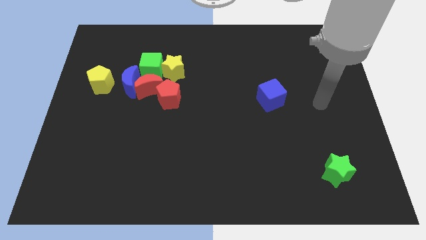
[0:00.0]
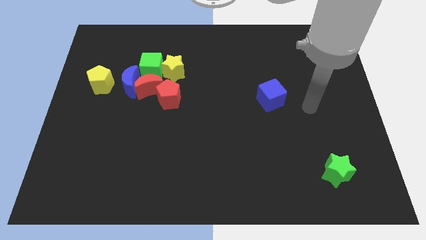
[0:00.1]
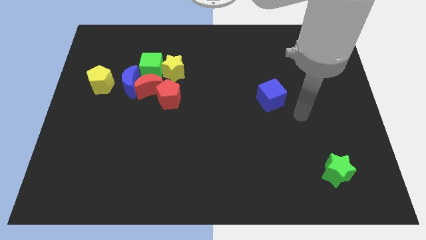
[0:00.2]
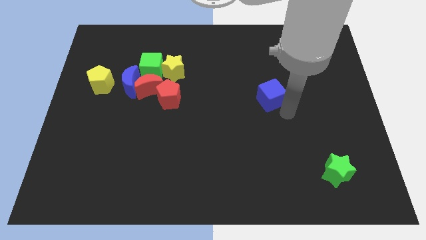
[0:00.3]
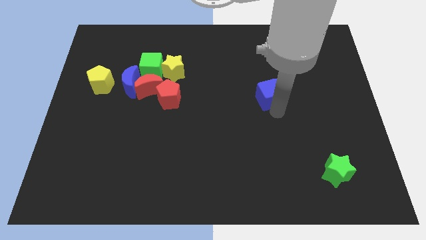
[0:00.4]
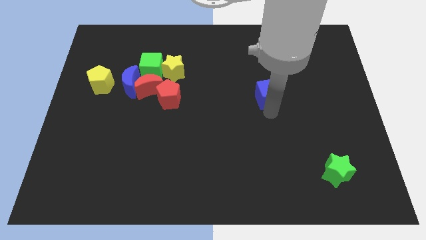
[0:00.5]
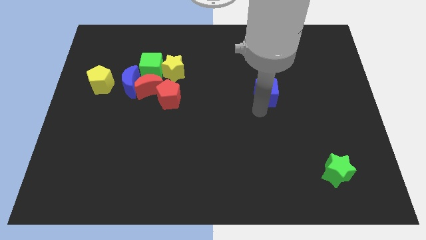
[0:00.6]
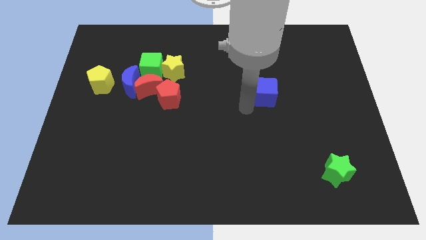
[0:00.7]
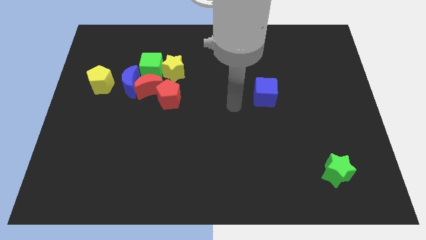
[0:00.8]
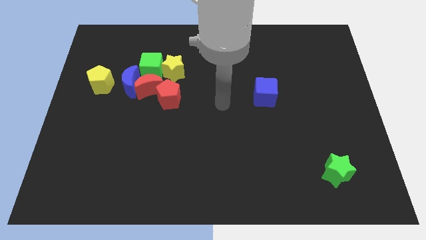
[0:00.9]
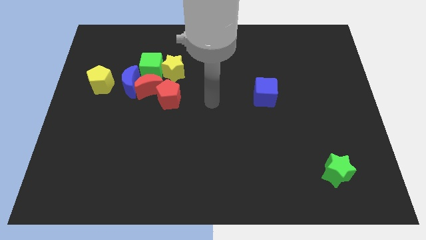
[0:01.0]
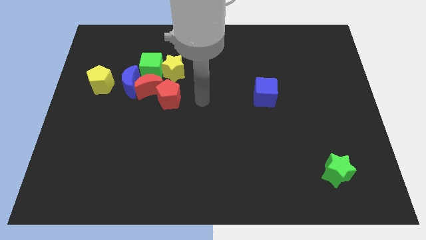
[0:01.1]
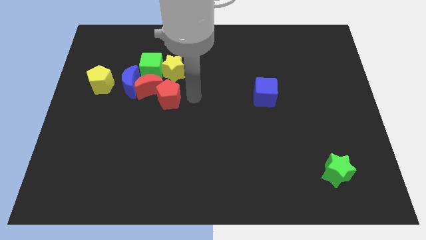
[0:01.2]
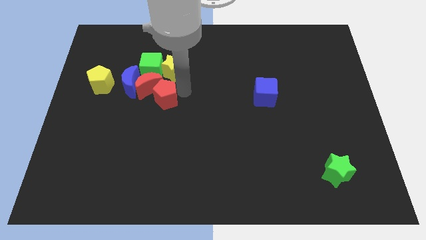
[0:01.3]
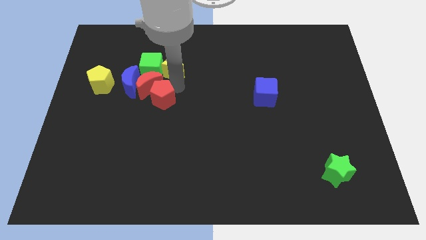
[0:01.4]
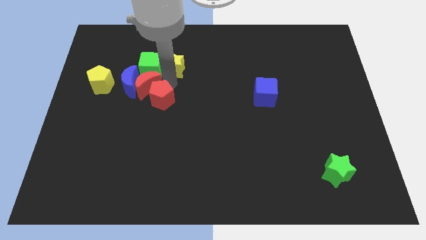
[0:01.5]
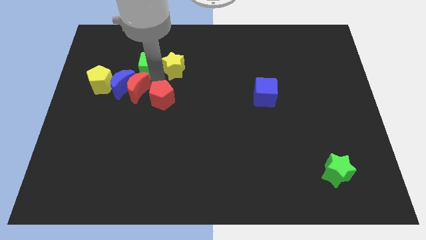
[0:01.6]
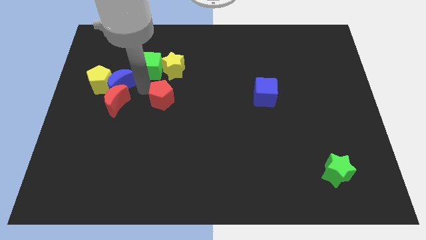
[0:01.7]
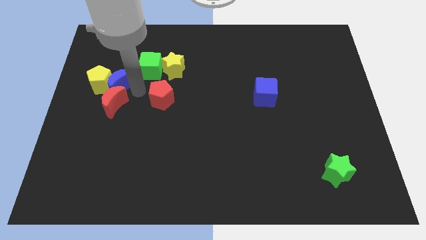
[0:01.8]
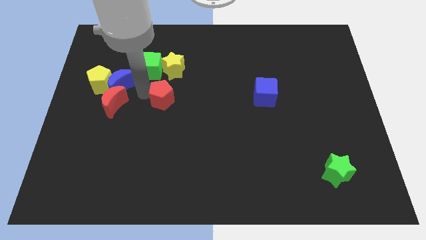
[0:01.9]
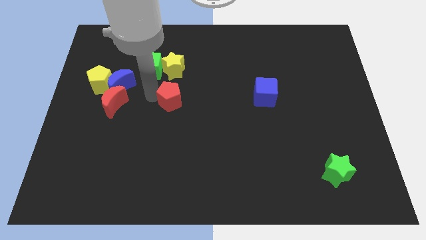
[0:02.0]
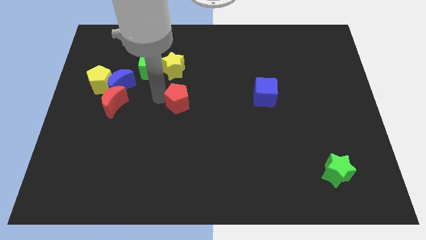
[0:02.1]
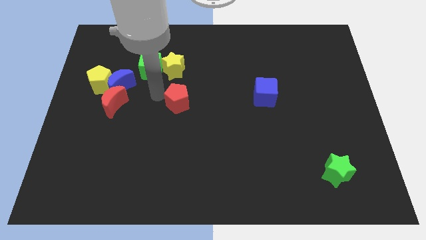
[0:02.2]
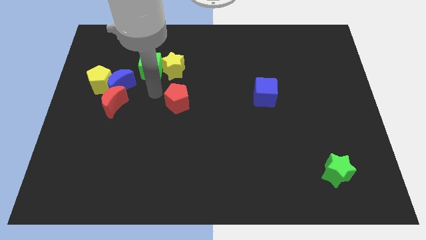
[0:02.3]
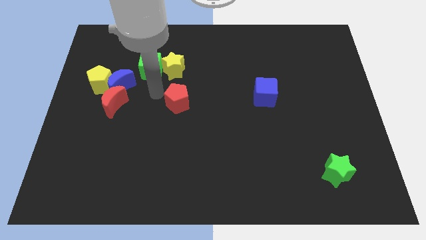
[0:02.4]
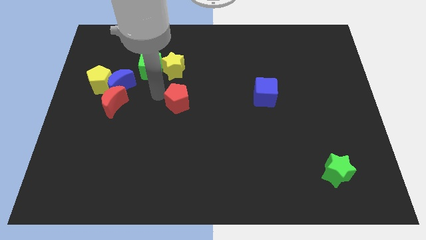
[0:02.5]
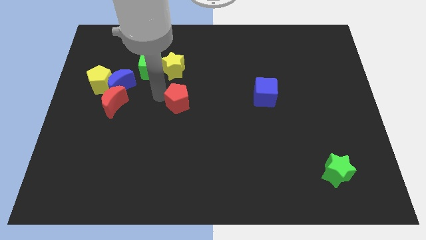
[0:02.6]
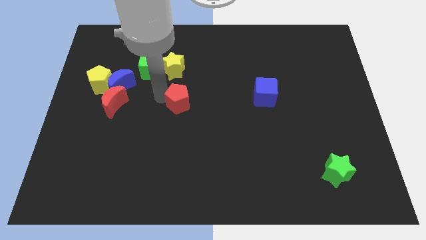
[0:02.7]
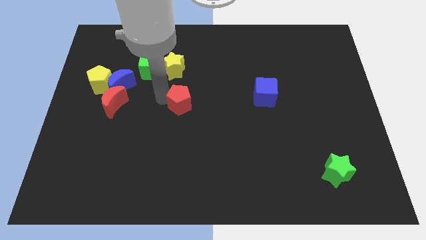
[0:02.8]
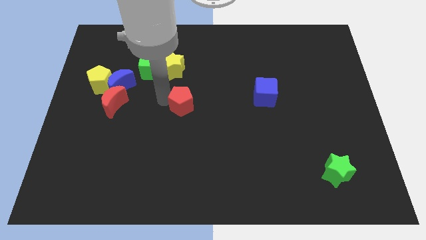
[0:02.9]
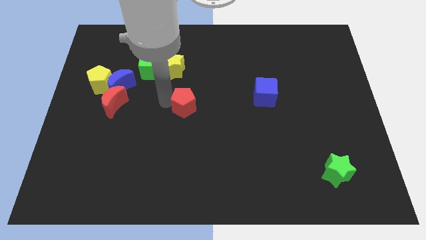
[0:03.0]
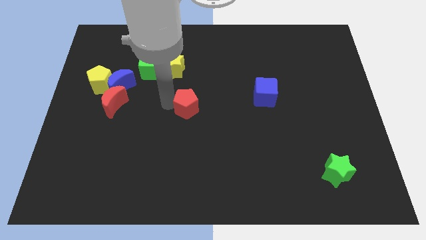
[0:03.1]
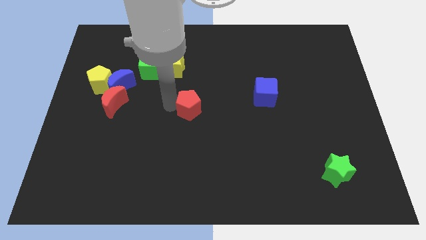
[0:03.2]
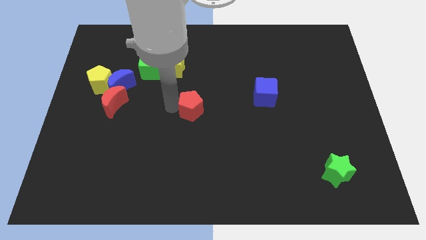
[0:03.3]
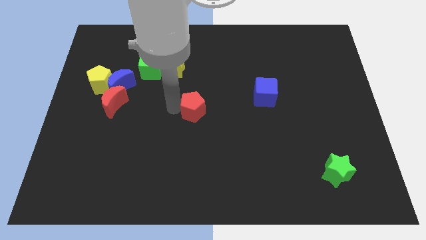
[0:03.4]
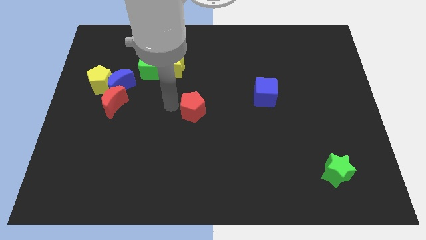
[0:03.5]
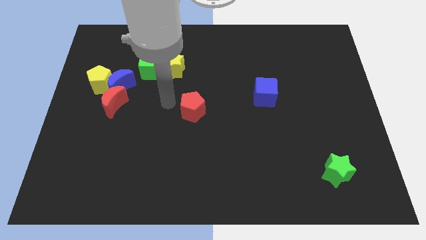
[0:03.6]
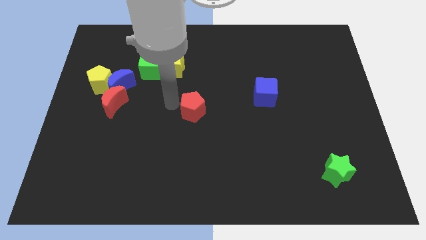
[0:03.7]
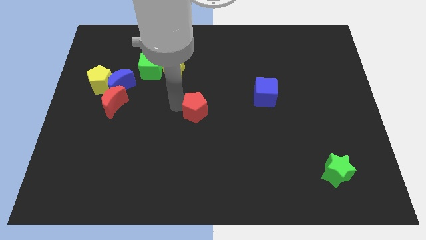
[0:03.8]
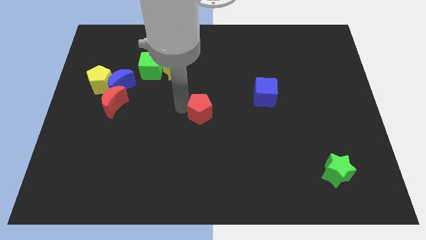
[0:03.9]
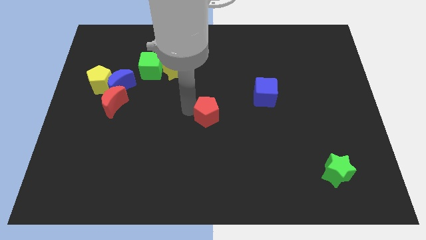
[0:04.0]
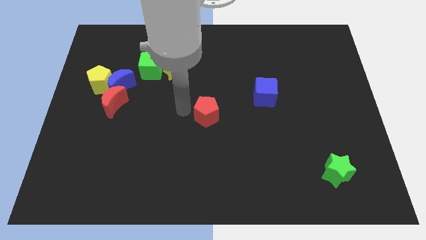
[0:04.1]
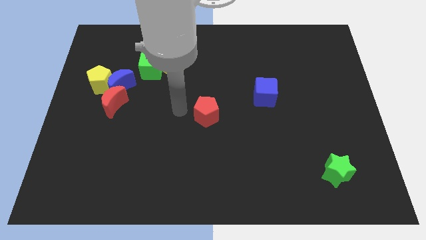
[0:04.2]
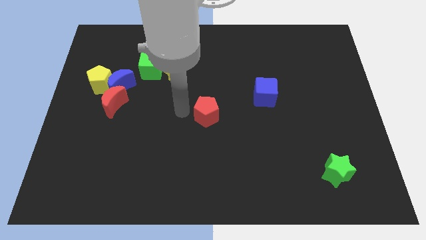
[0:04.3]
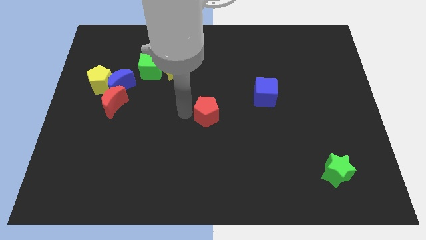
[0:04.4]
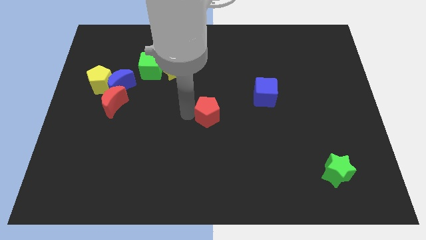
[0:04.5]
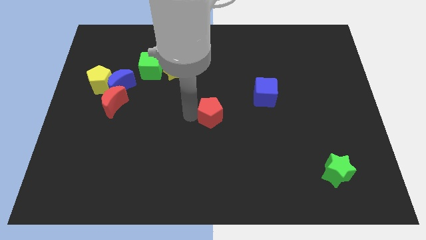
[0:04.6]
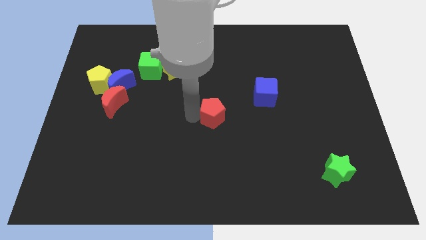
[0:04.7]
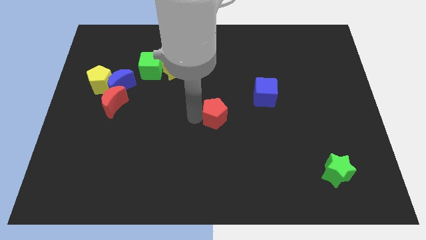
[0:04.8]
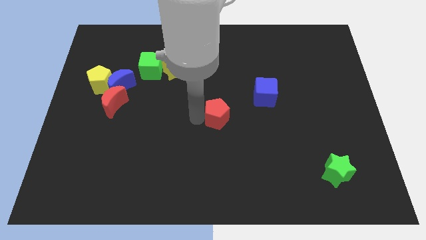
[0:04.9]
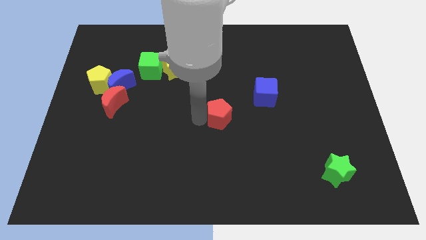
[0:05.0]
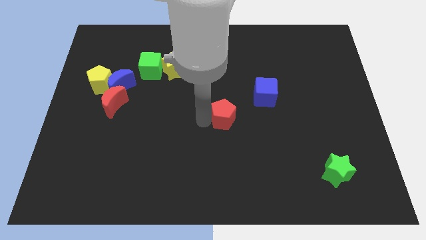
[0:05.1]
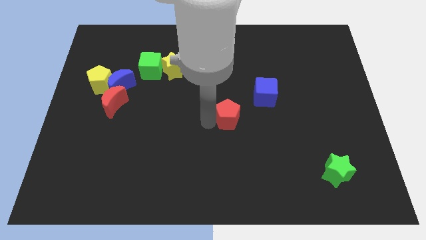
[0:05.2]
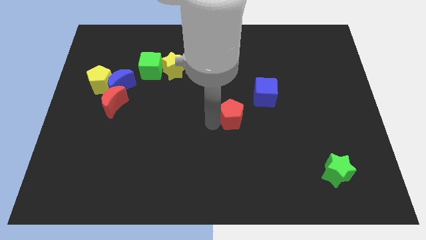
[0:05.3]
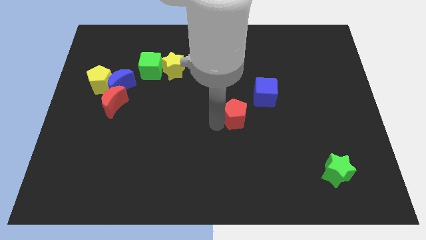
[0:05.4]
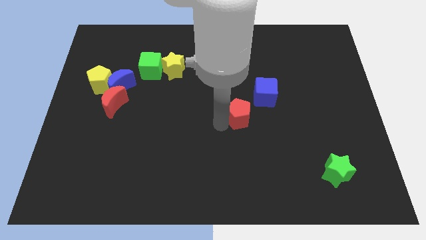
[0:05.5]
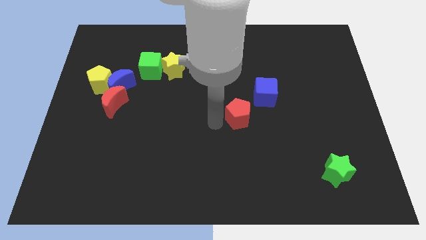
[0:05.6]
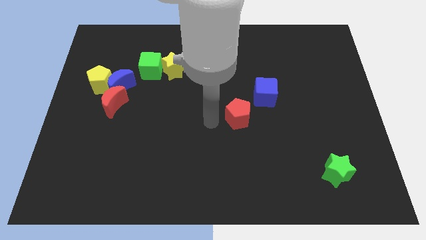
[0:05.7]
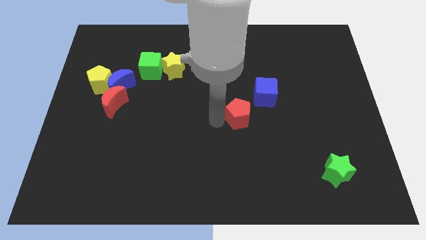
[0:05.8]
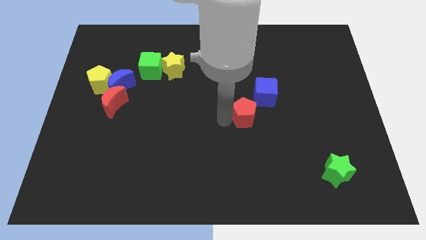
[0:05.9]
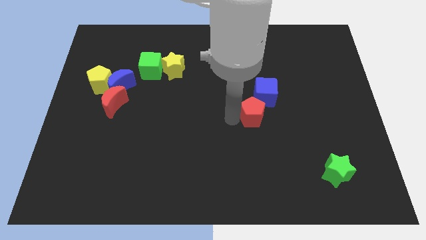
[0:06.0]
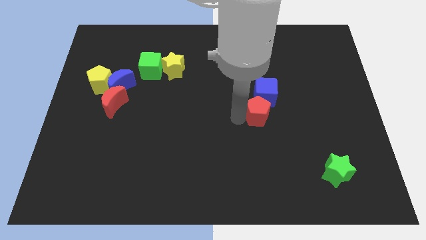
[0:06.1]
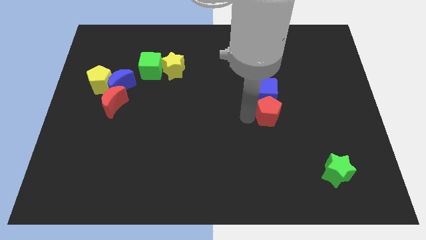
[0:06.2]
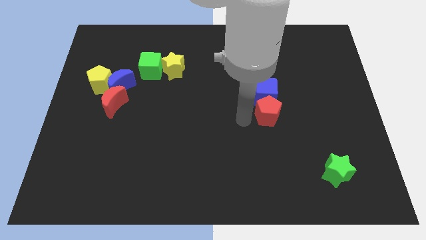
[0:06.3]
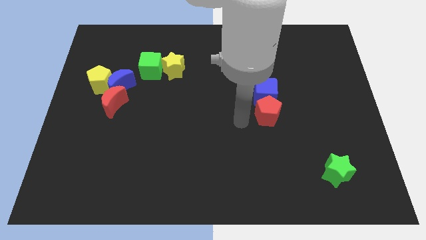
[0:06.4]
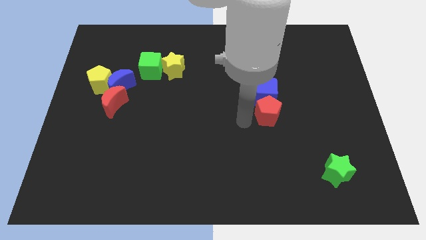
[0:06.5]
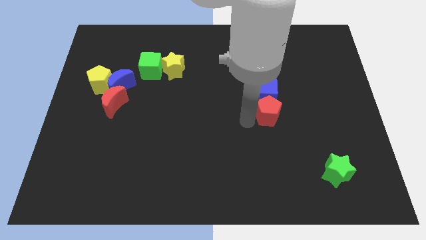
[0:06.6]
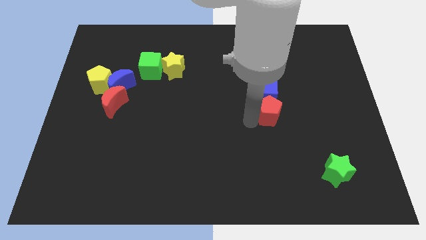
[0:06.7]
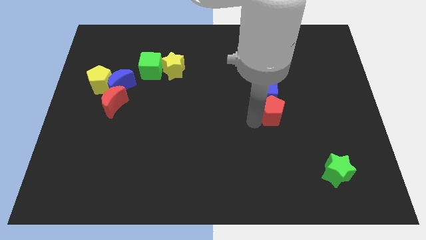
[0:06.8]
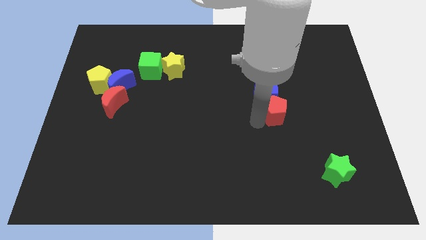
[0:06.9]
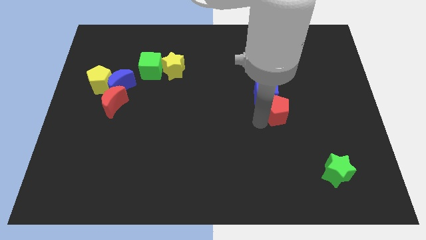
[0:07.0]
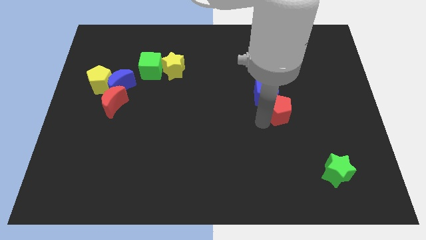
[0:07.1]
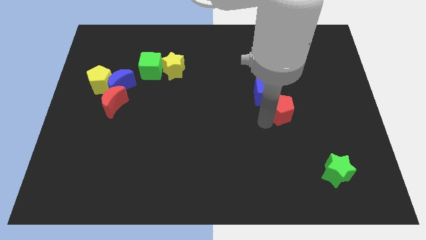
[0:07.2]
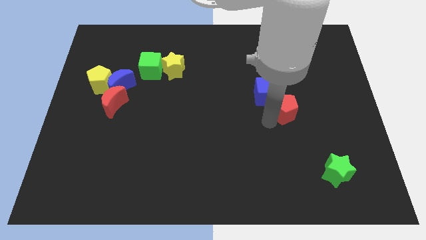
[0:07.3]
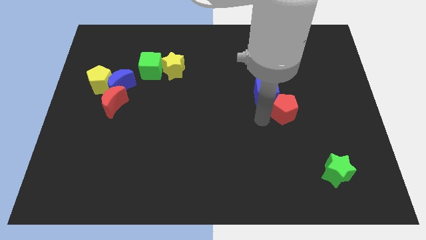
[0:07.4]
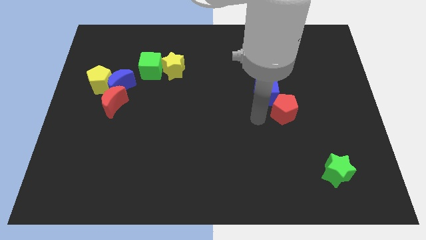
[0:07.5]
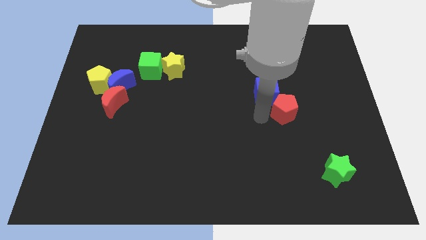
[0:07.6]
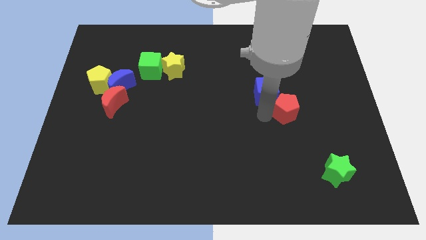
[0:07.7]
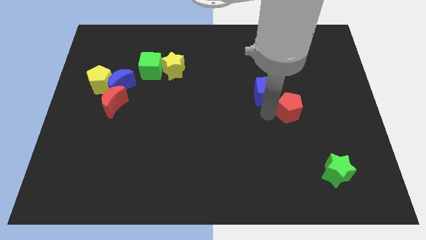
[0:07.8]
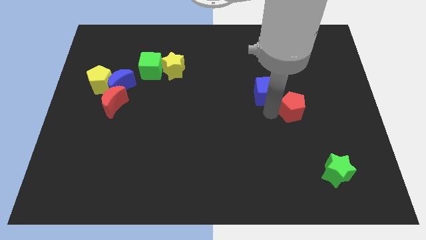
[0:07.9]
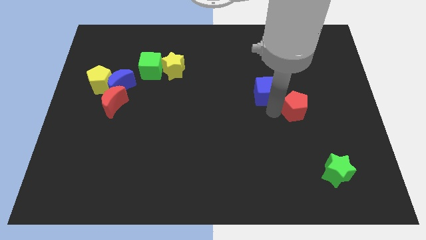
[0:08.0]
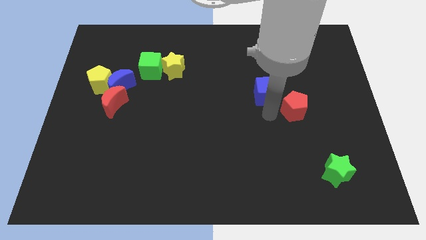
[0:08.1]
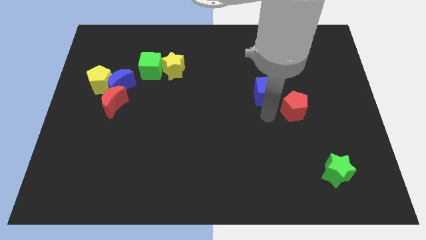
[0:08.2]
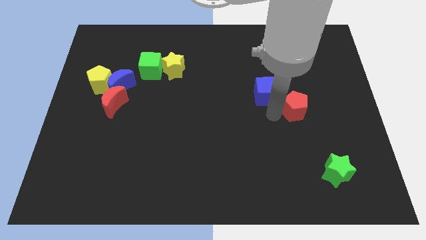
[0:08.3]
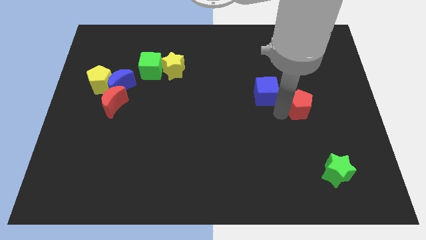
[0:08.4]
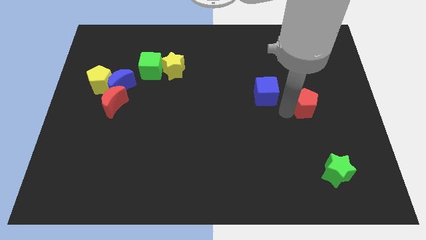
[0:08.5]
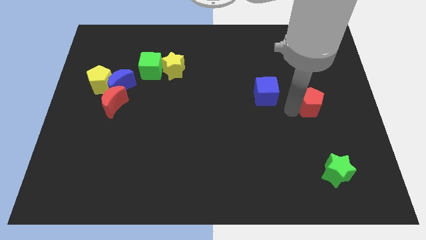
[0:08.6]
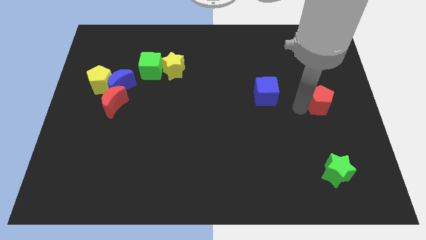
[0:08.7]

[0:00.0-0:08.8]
put the red pentagon to the right side of the board
